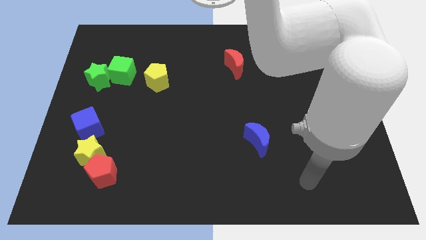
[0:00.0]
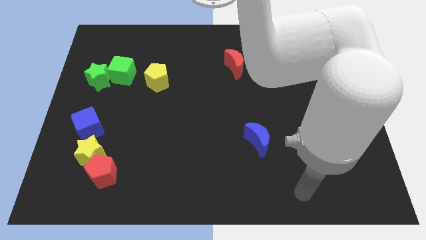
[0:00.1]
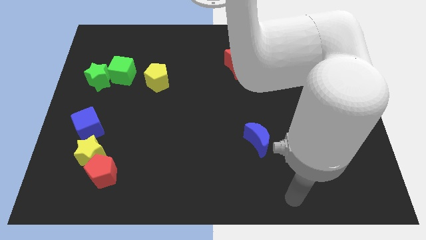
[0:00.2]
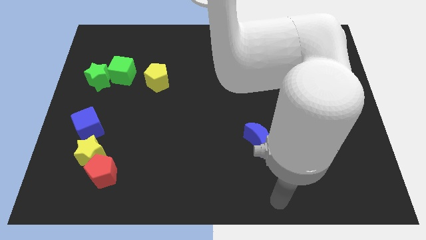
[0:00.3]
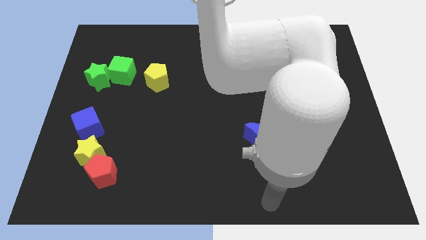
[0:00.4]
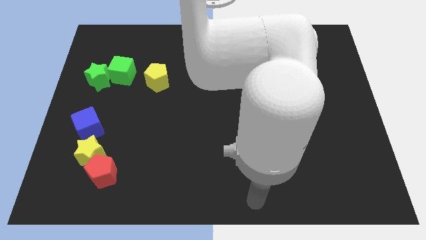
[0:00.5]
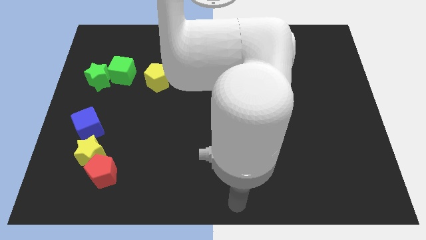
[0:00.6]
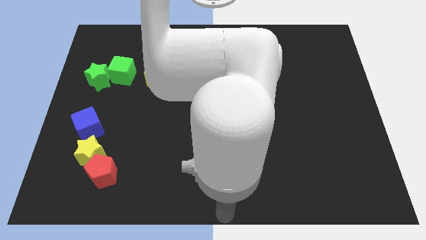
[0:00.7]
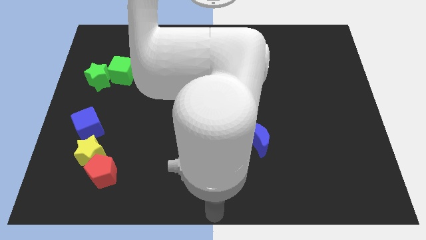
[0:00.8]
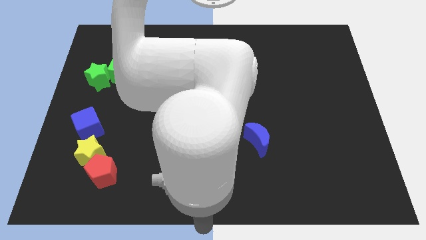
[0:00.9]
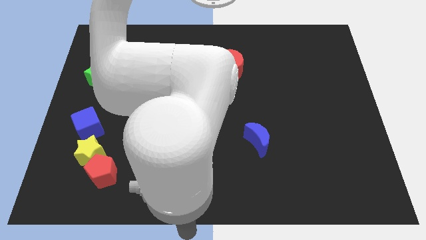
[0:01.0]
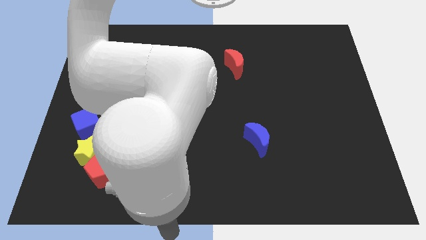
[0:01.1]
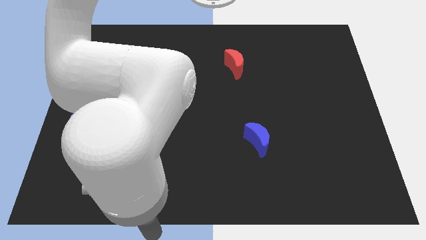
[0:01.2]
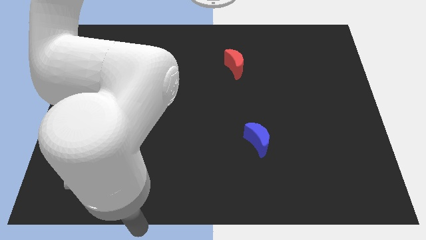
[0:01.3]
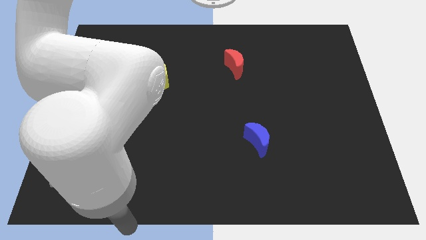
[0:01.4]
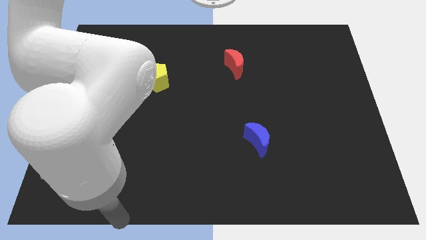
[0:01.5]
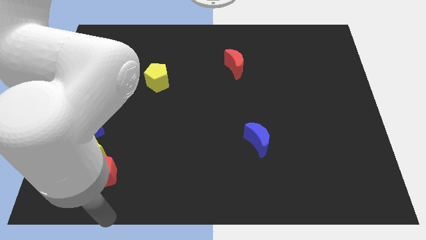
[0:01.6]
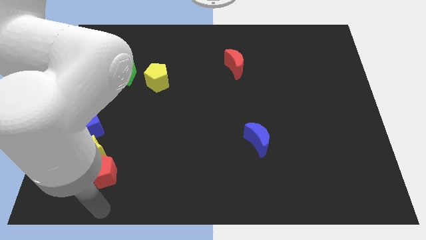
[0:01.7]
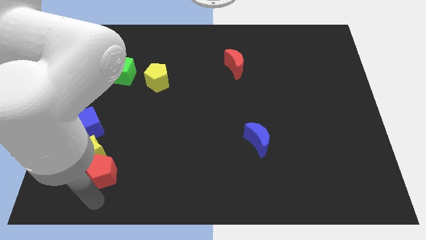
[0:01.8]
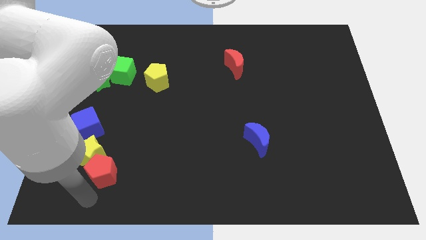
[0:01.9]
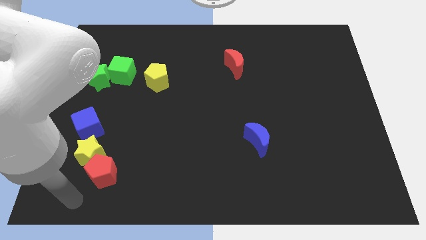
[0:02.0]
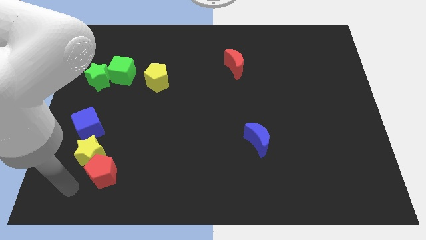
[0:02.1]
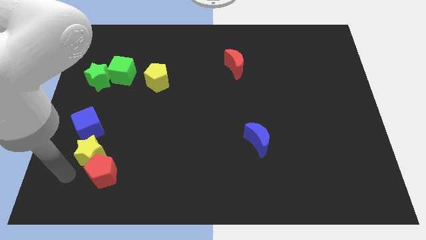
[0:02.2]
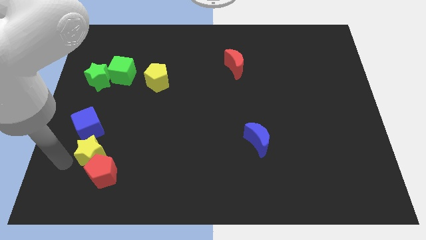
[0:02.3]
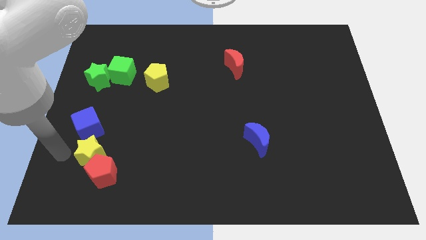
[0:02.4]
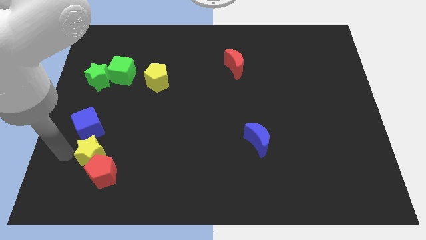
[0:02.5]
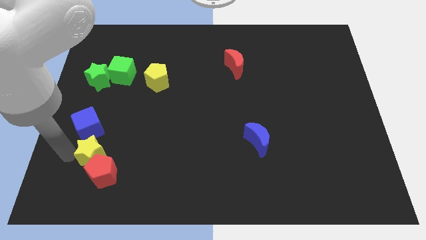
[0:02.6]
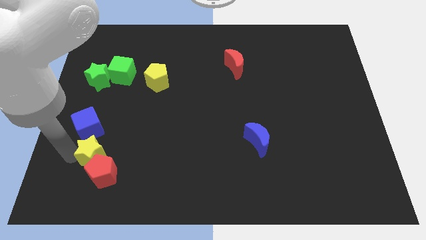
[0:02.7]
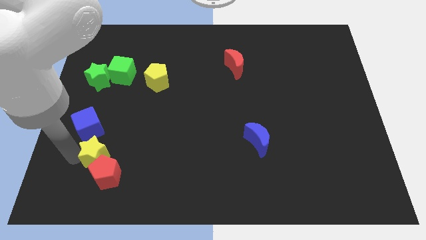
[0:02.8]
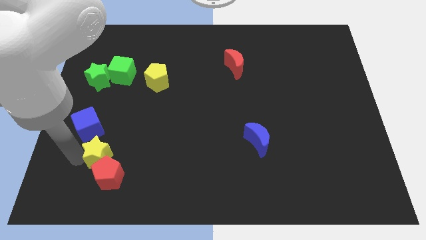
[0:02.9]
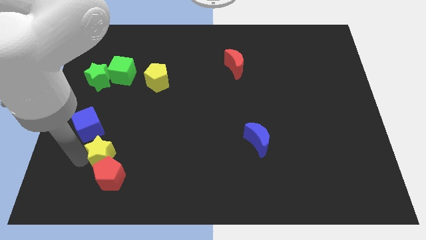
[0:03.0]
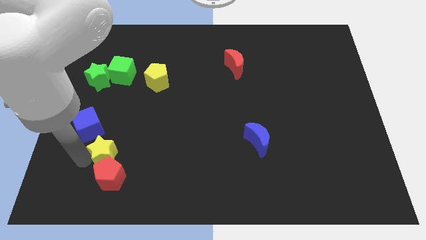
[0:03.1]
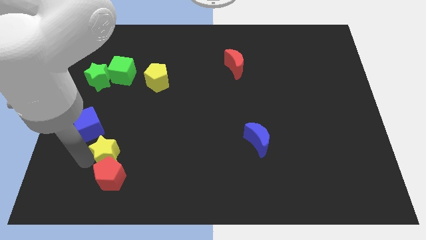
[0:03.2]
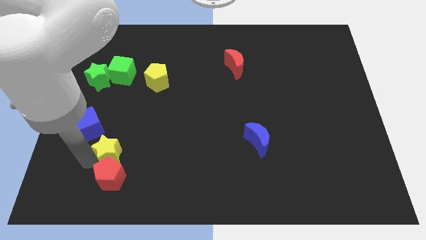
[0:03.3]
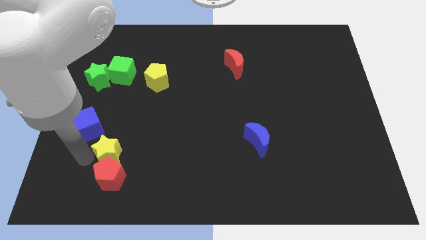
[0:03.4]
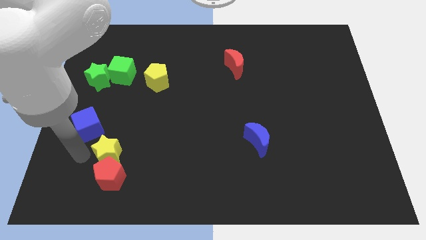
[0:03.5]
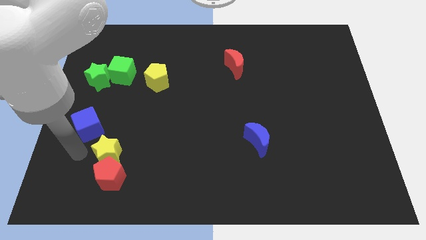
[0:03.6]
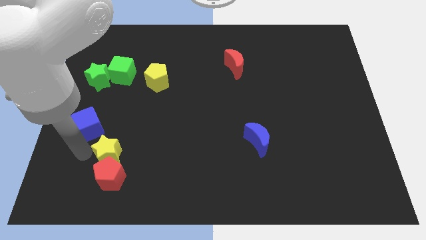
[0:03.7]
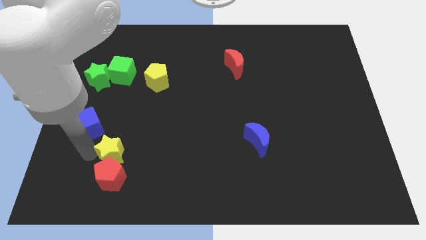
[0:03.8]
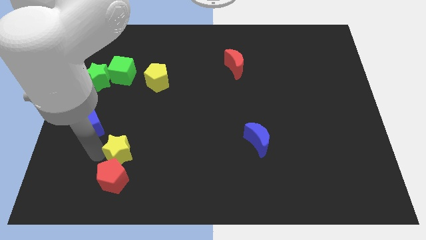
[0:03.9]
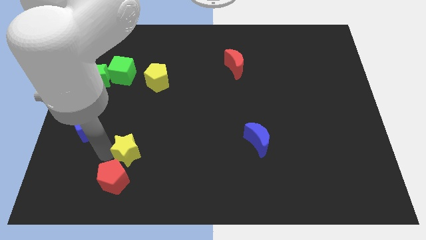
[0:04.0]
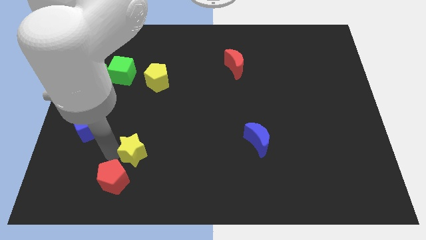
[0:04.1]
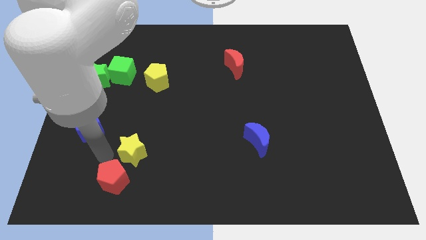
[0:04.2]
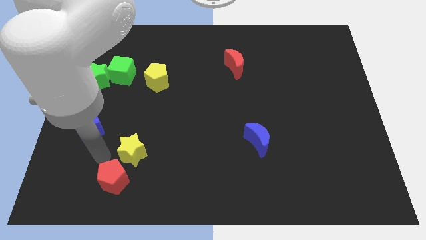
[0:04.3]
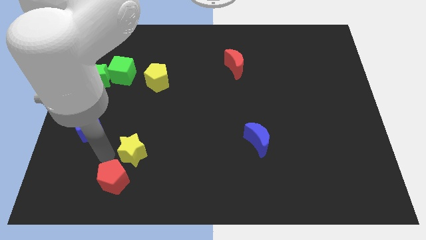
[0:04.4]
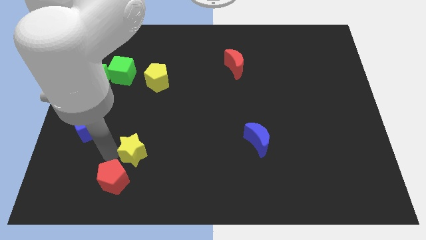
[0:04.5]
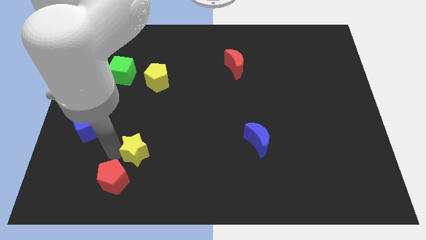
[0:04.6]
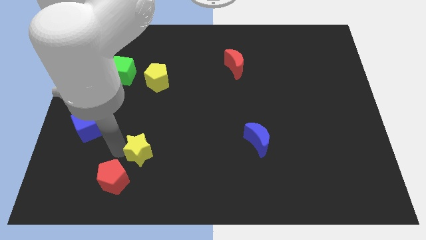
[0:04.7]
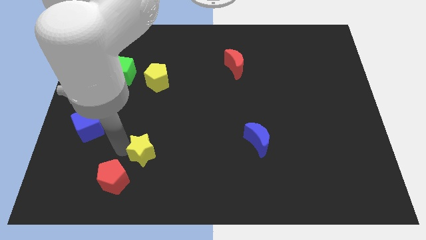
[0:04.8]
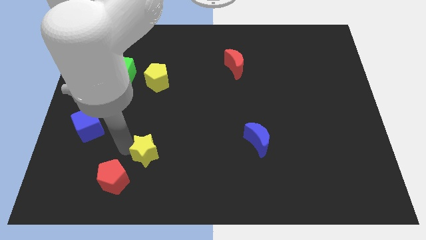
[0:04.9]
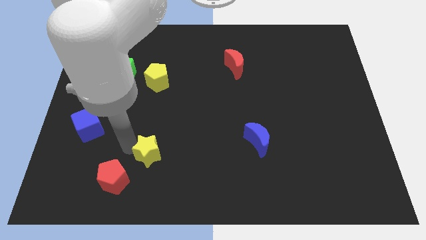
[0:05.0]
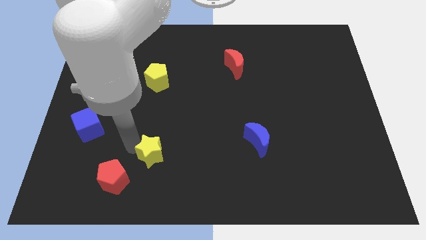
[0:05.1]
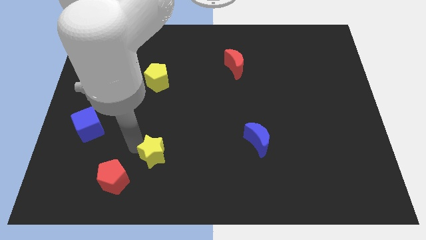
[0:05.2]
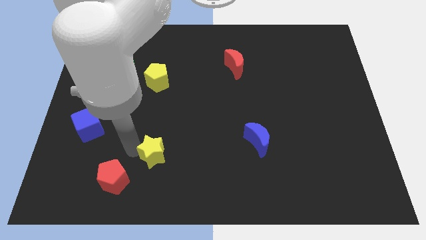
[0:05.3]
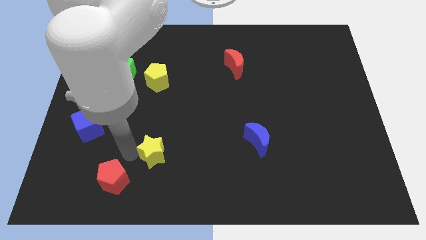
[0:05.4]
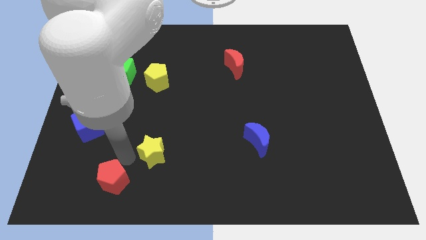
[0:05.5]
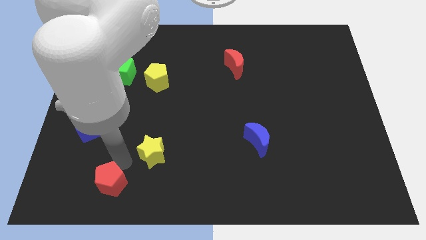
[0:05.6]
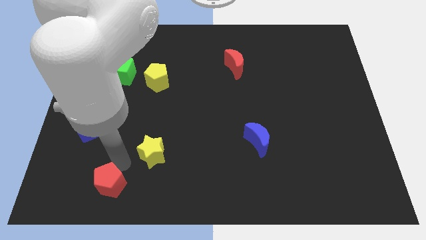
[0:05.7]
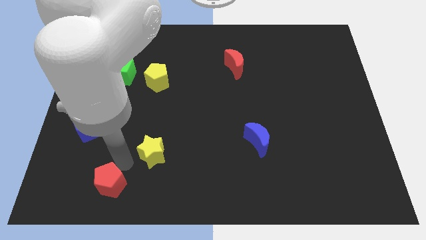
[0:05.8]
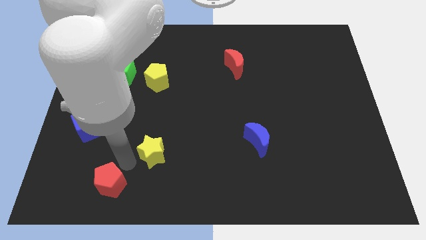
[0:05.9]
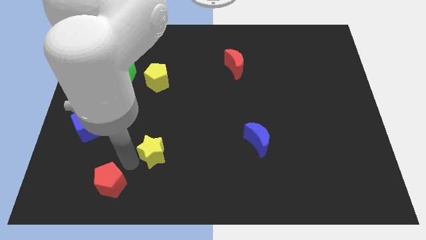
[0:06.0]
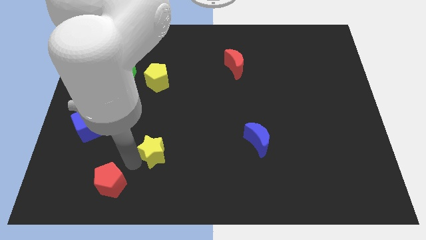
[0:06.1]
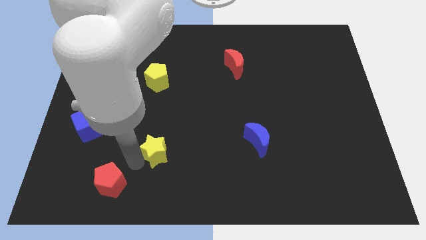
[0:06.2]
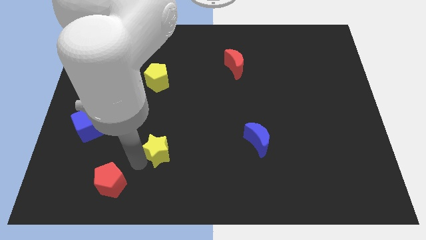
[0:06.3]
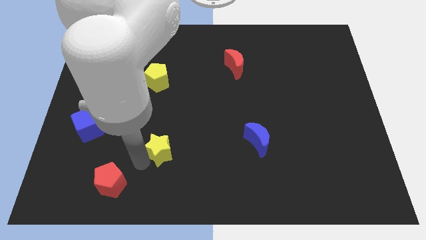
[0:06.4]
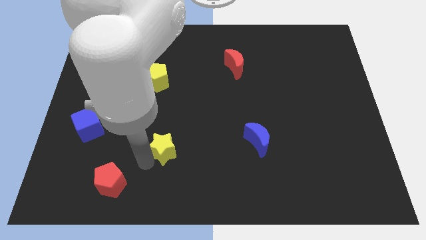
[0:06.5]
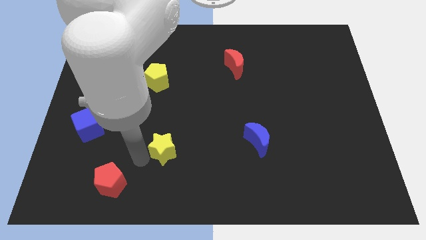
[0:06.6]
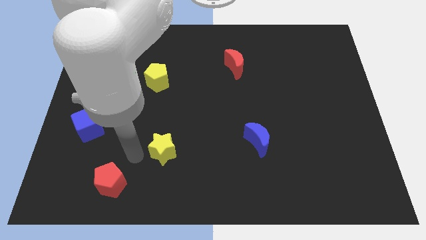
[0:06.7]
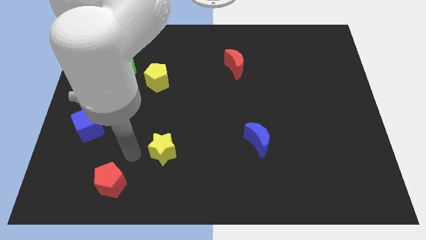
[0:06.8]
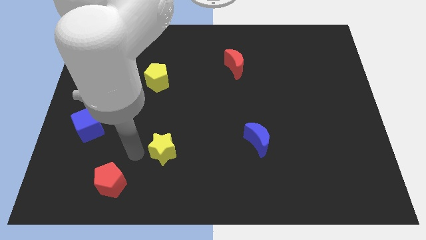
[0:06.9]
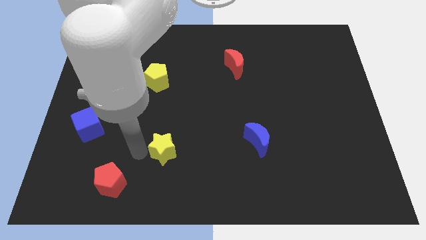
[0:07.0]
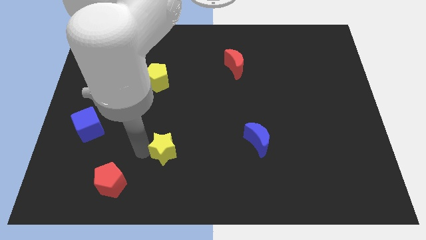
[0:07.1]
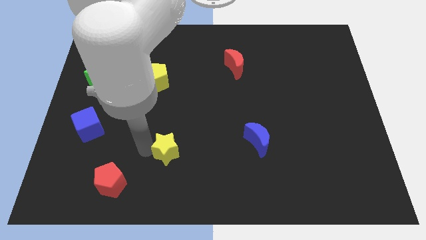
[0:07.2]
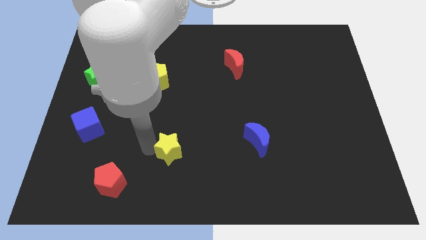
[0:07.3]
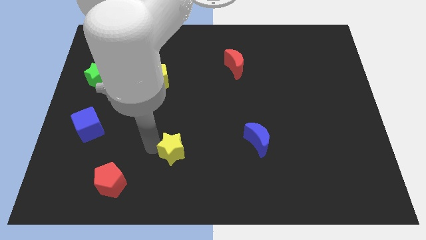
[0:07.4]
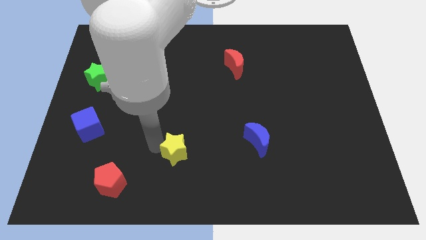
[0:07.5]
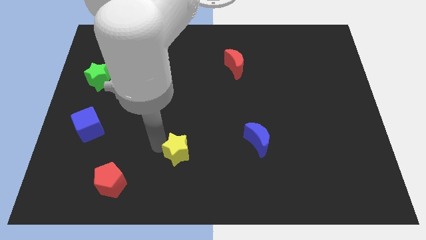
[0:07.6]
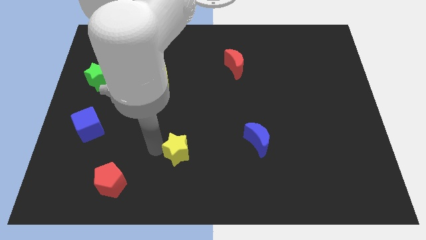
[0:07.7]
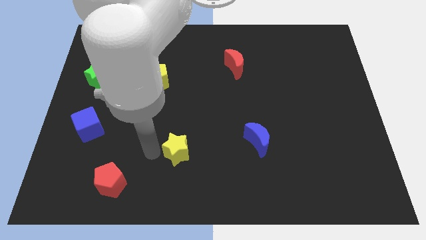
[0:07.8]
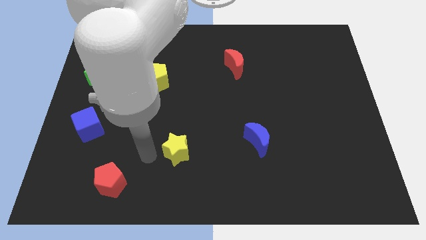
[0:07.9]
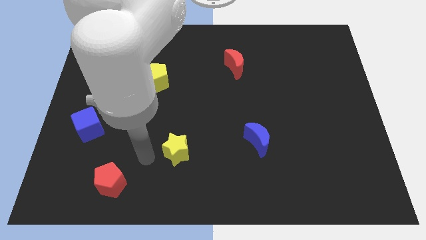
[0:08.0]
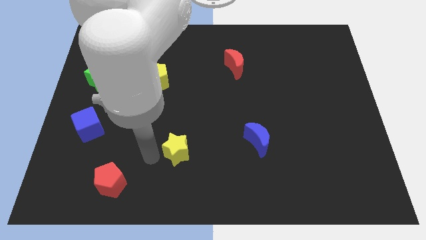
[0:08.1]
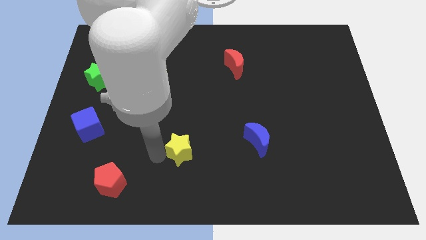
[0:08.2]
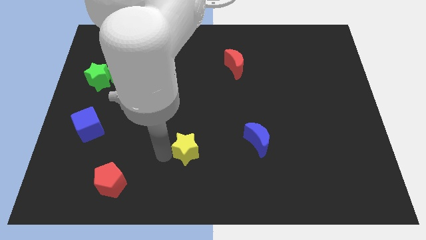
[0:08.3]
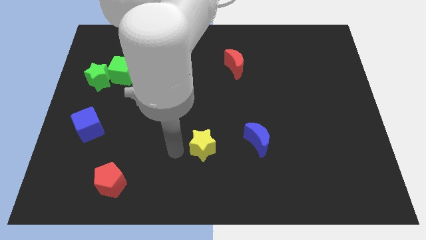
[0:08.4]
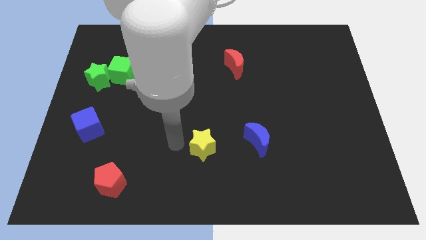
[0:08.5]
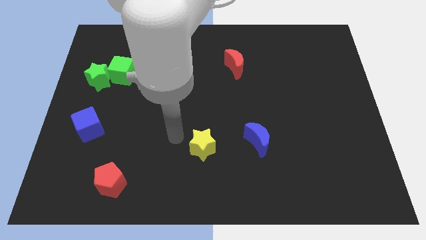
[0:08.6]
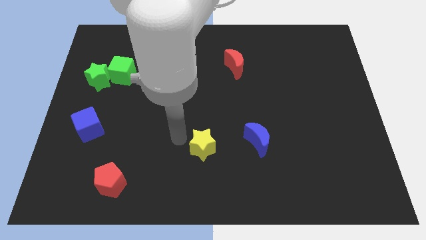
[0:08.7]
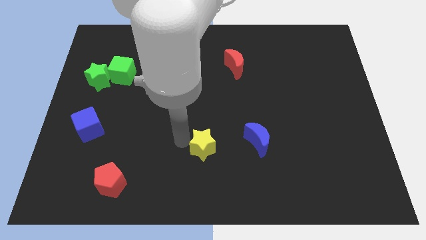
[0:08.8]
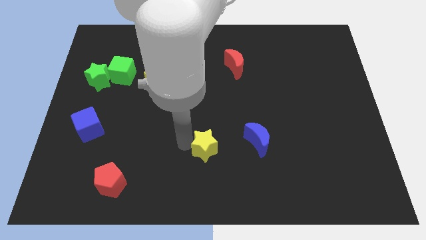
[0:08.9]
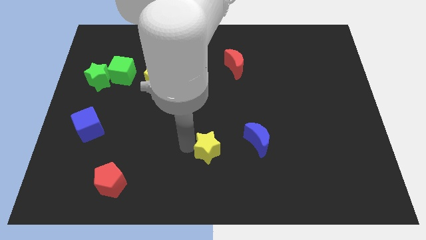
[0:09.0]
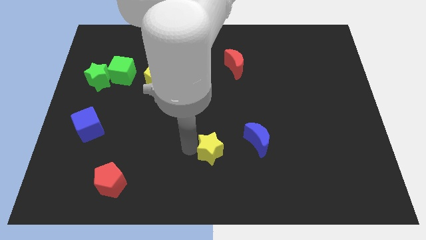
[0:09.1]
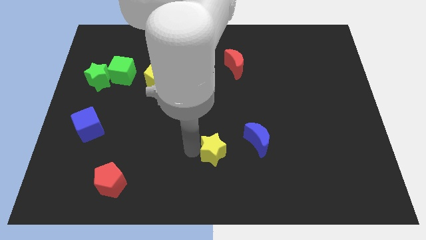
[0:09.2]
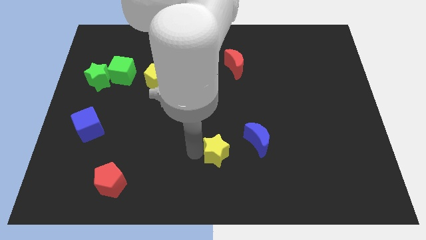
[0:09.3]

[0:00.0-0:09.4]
move the yellow star to the bottom left side of the blue moon
